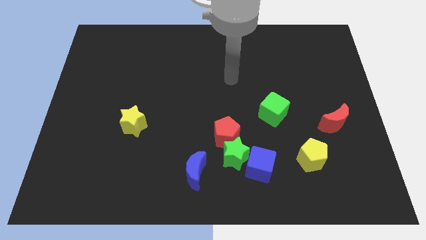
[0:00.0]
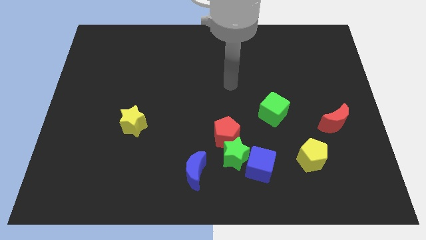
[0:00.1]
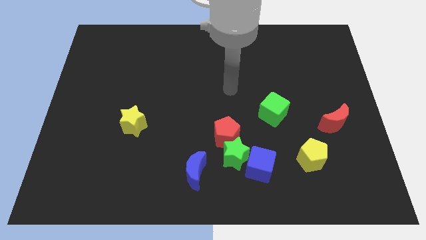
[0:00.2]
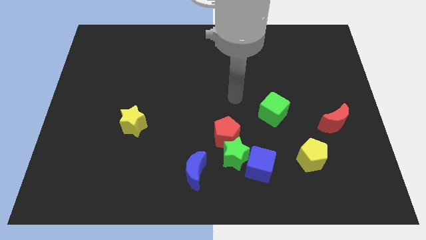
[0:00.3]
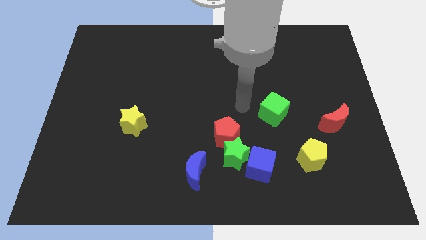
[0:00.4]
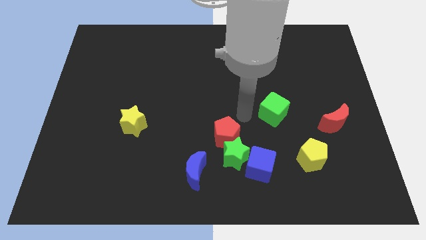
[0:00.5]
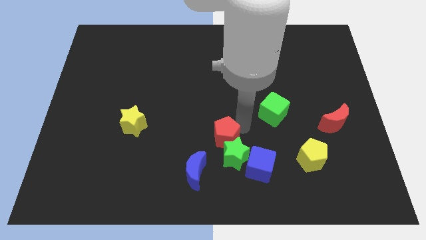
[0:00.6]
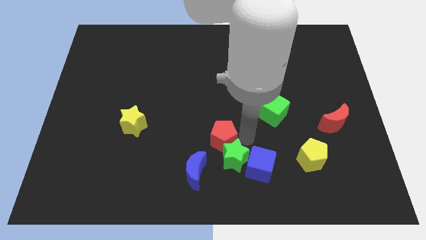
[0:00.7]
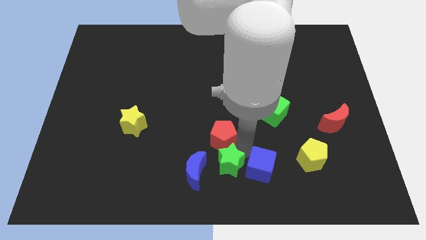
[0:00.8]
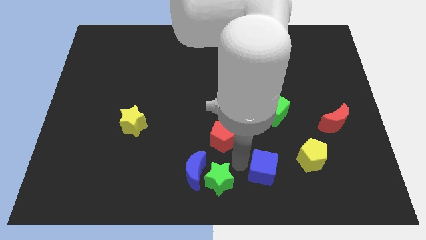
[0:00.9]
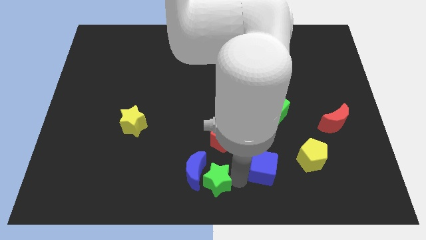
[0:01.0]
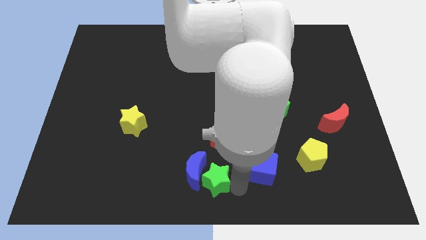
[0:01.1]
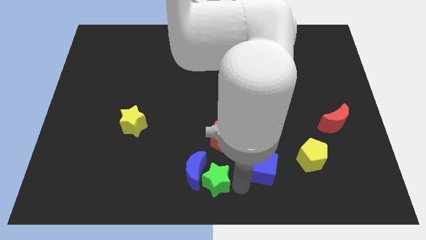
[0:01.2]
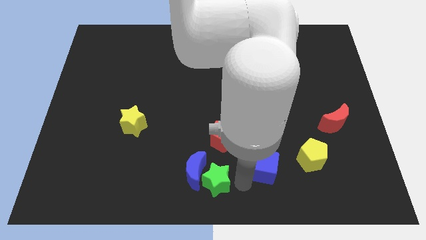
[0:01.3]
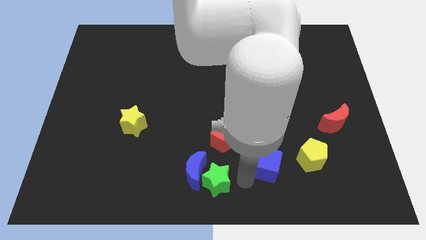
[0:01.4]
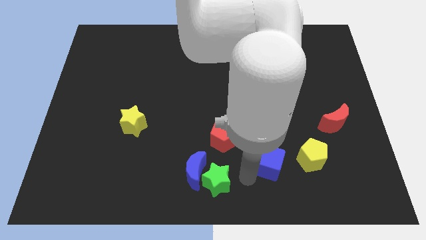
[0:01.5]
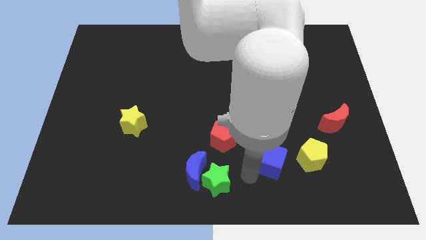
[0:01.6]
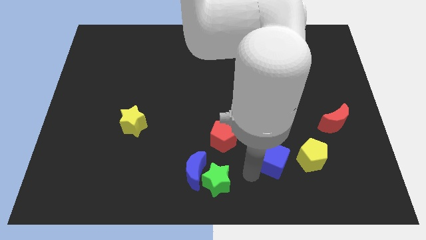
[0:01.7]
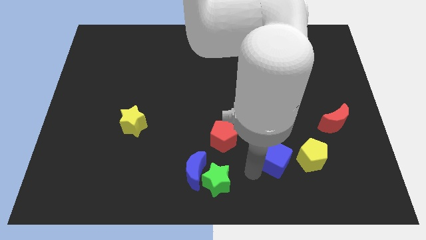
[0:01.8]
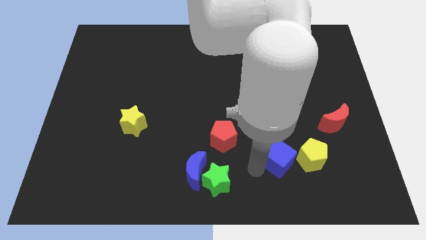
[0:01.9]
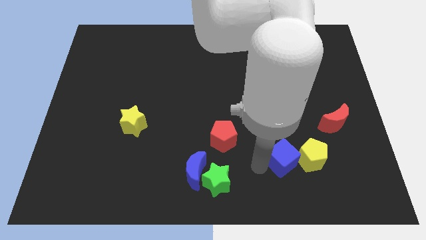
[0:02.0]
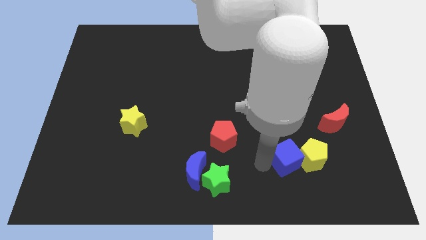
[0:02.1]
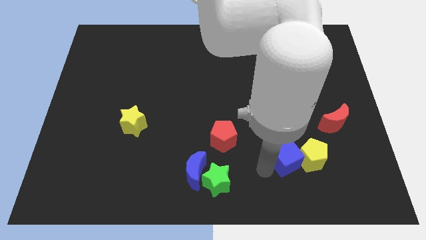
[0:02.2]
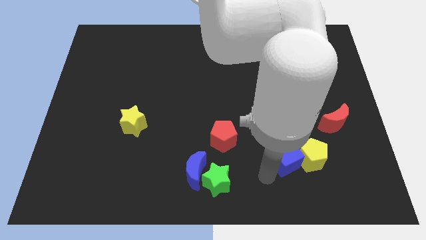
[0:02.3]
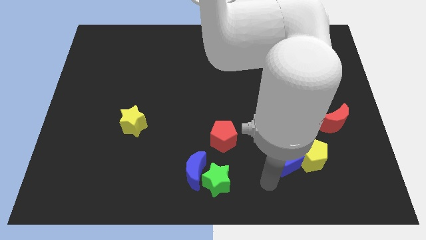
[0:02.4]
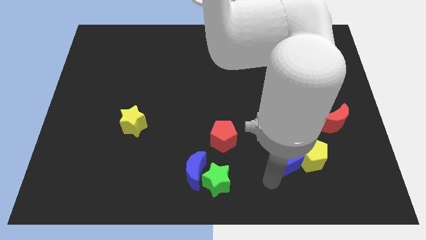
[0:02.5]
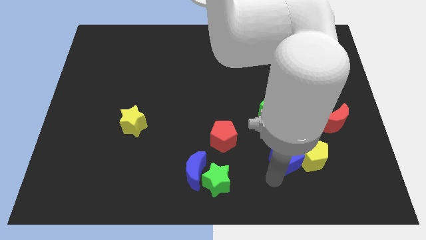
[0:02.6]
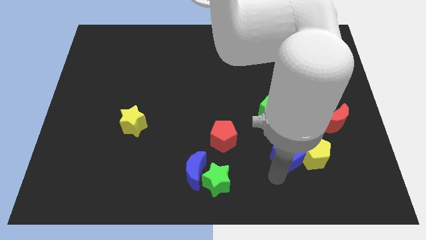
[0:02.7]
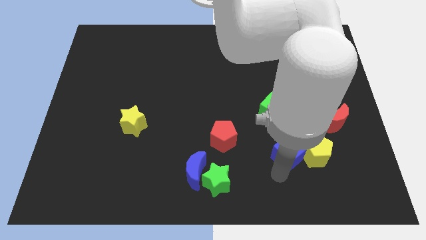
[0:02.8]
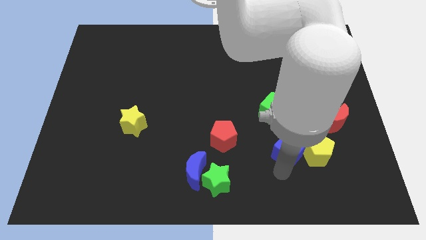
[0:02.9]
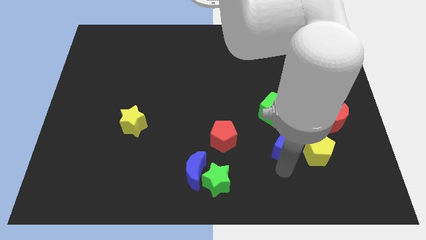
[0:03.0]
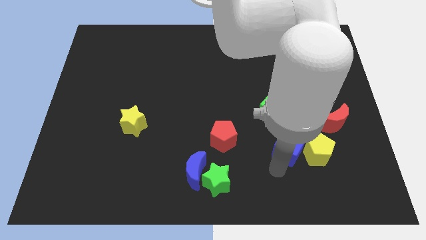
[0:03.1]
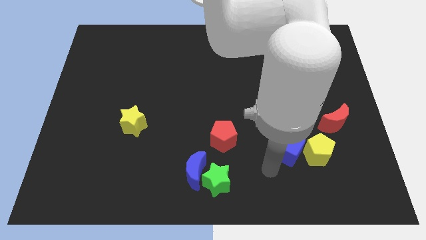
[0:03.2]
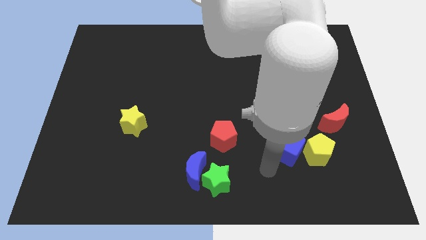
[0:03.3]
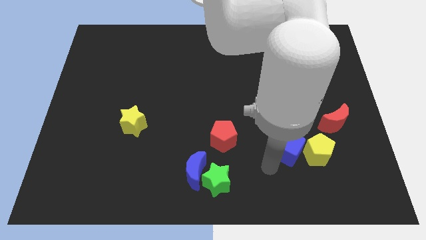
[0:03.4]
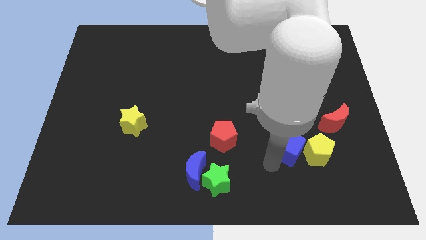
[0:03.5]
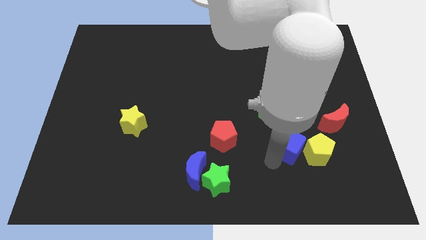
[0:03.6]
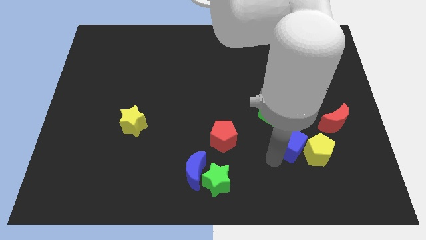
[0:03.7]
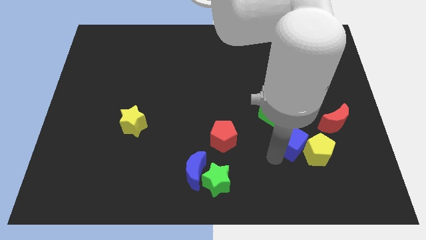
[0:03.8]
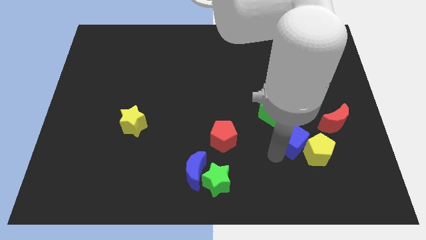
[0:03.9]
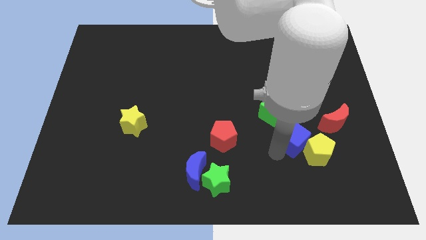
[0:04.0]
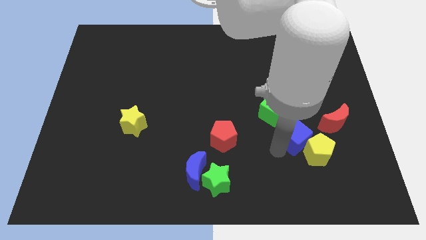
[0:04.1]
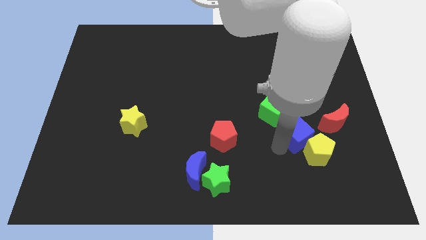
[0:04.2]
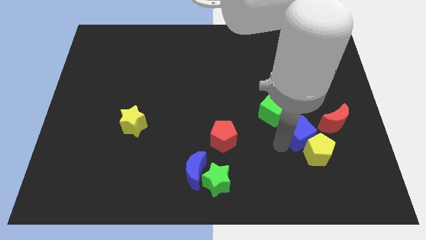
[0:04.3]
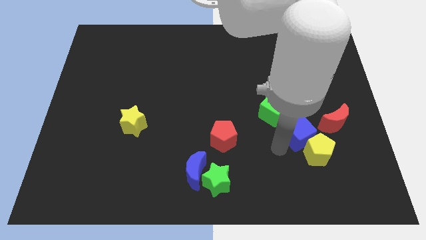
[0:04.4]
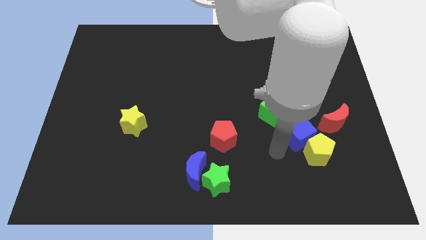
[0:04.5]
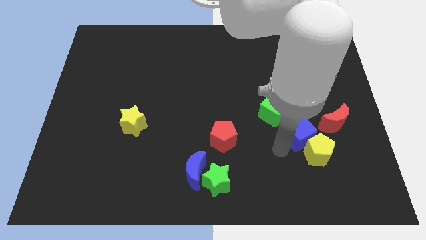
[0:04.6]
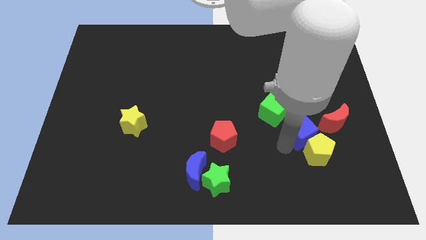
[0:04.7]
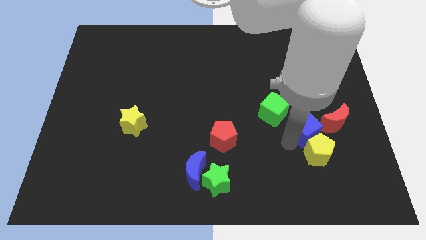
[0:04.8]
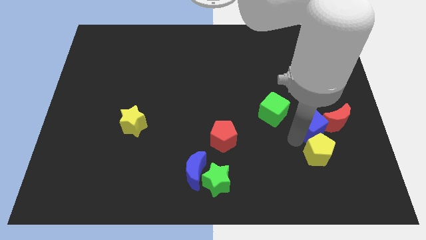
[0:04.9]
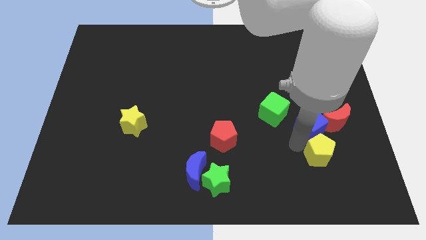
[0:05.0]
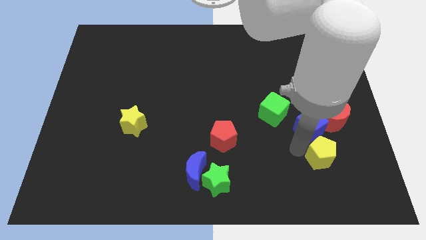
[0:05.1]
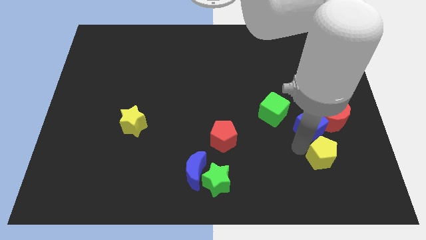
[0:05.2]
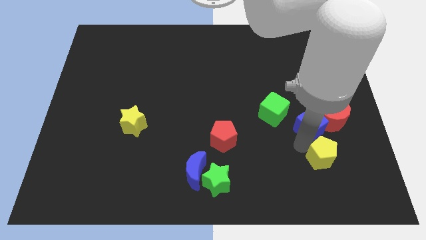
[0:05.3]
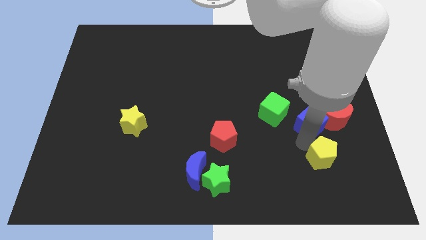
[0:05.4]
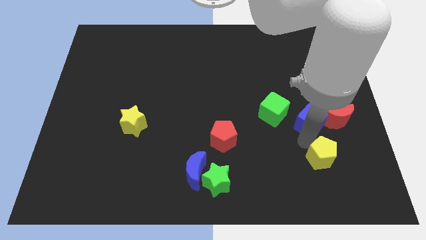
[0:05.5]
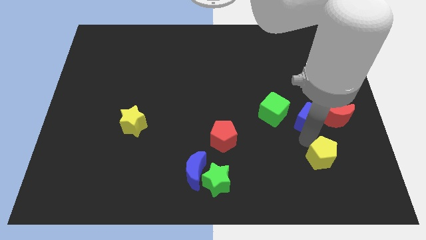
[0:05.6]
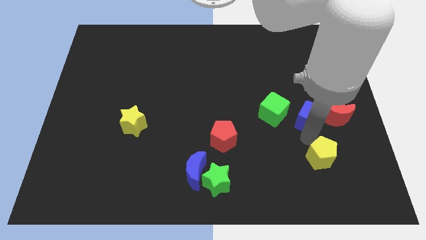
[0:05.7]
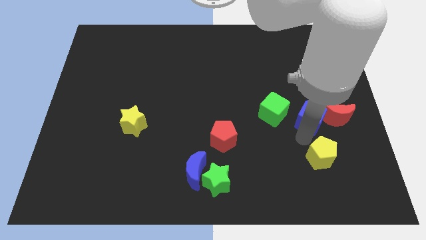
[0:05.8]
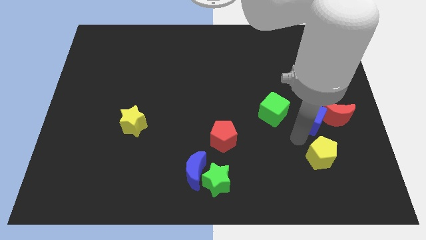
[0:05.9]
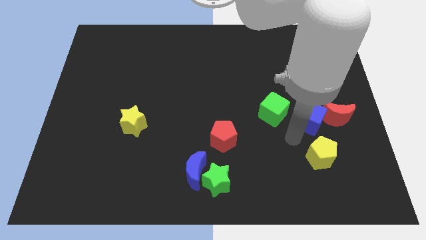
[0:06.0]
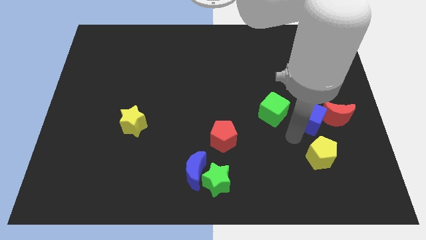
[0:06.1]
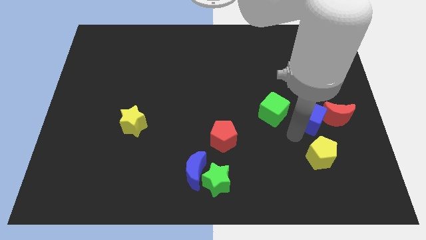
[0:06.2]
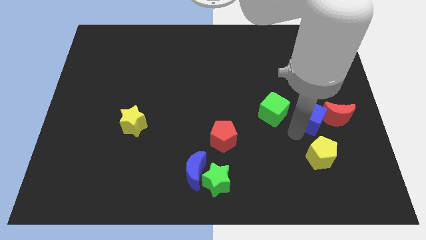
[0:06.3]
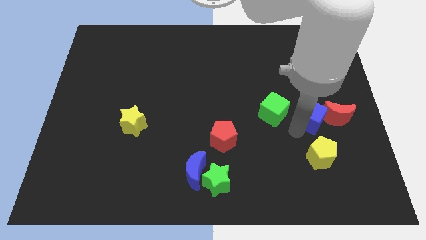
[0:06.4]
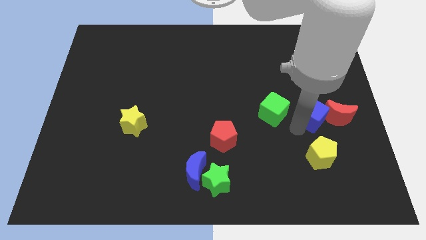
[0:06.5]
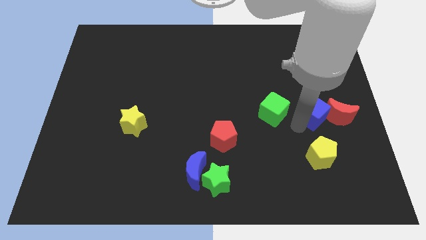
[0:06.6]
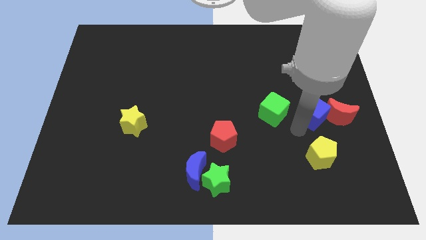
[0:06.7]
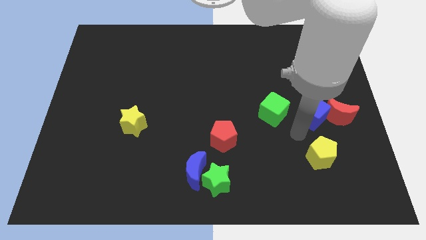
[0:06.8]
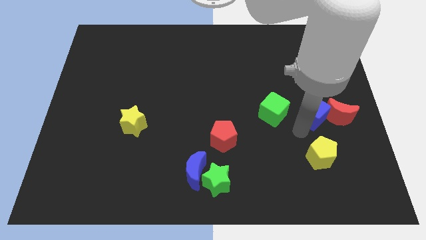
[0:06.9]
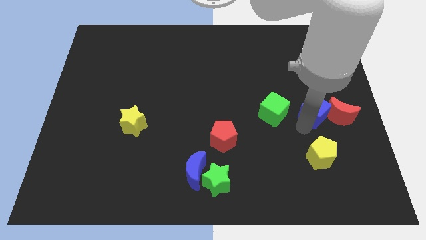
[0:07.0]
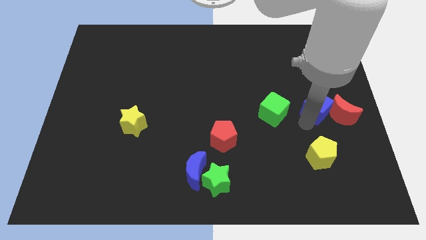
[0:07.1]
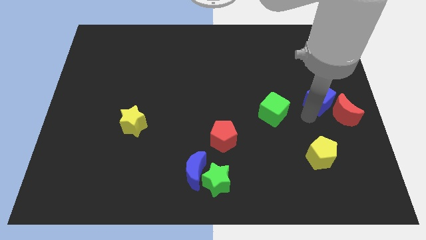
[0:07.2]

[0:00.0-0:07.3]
move the blue cube to the right side of the board
